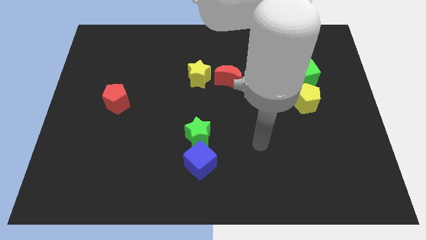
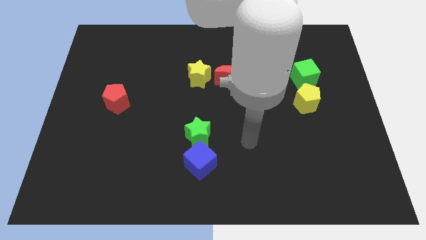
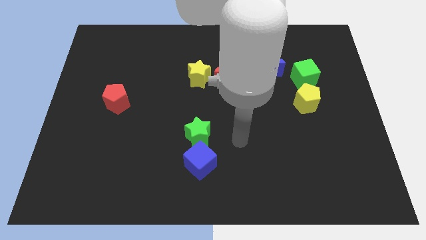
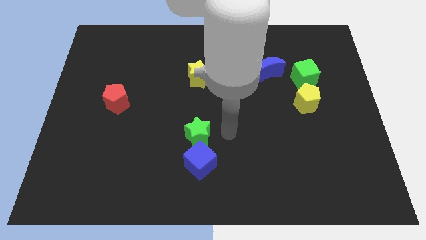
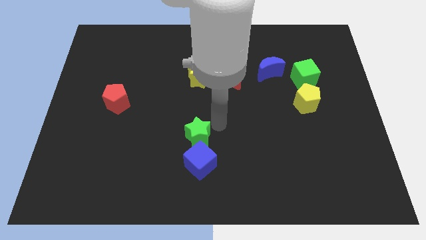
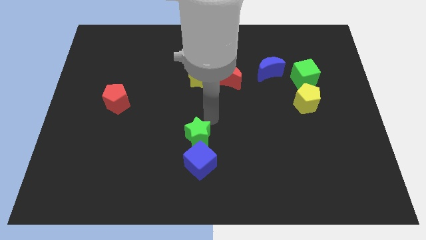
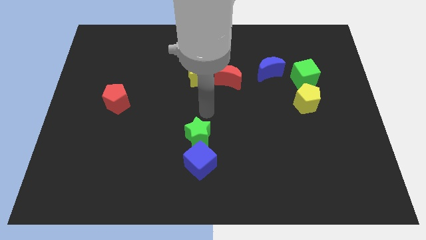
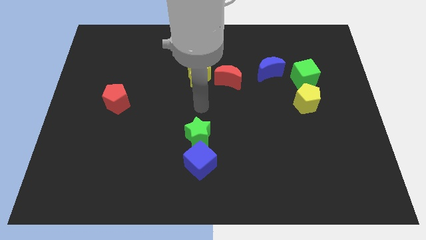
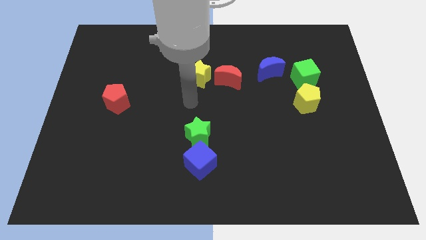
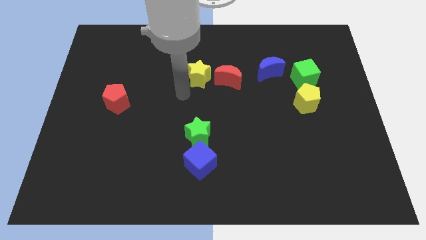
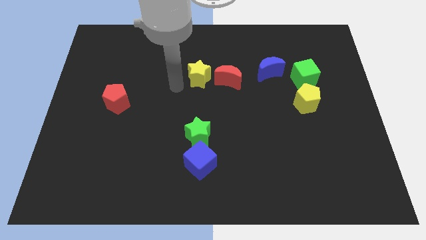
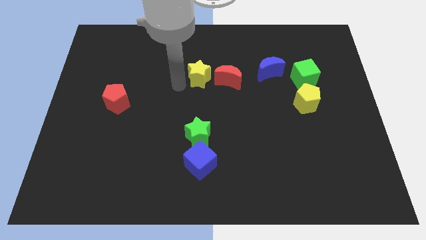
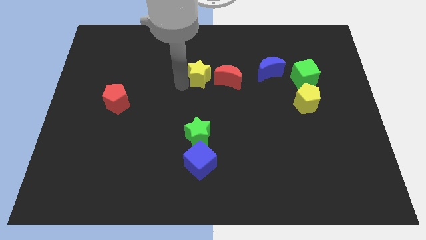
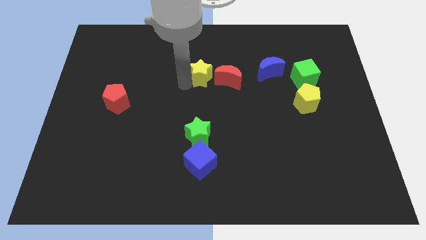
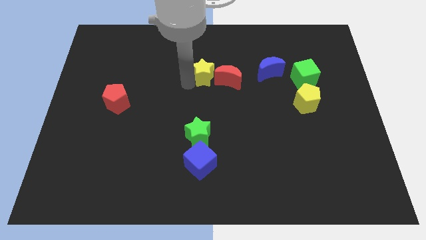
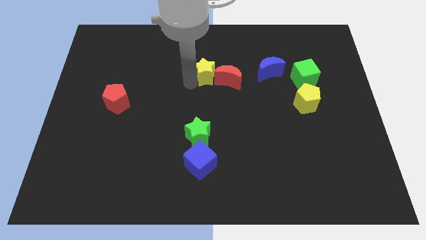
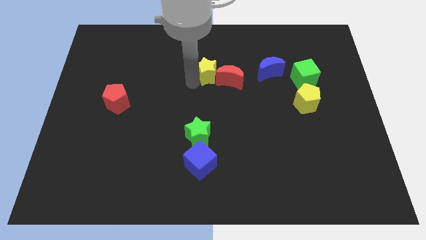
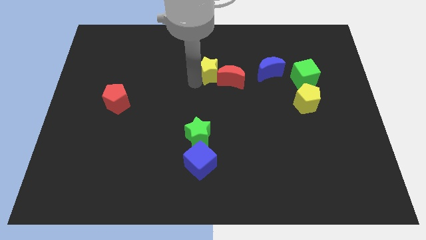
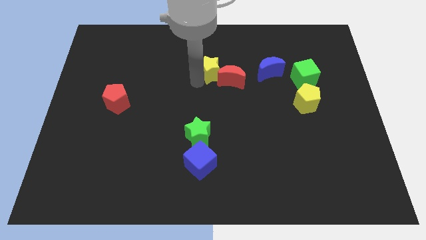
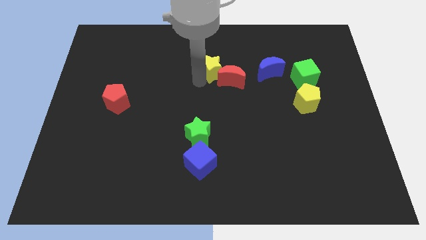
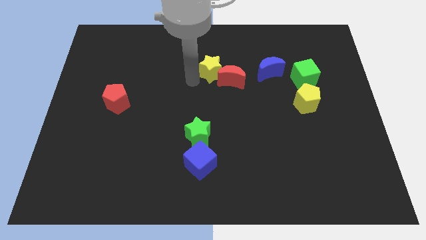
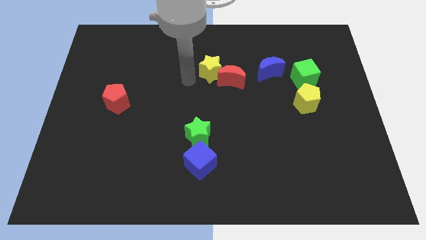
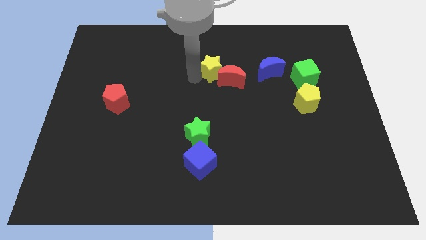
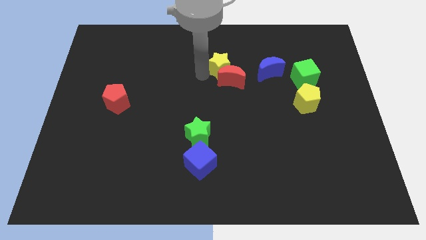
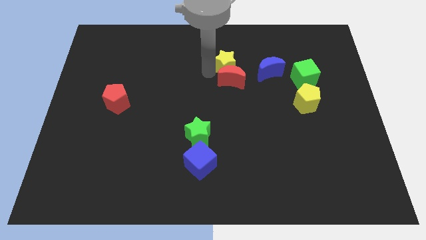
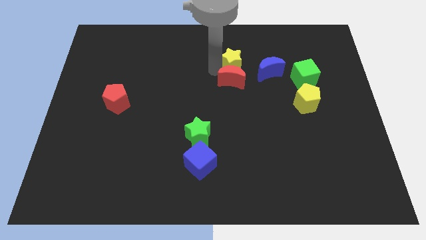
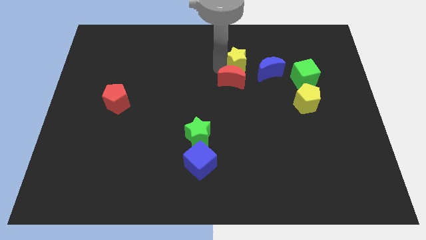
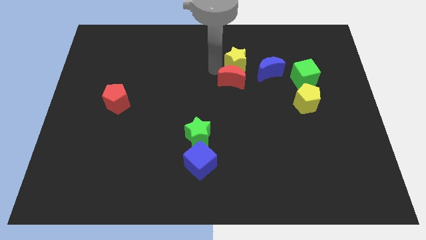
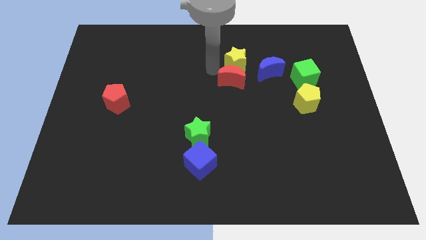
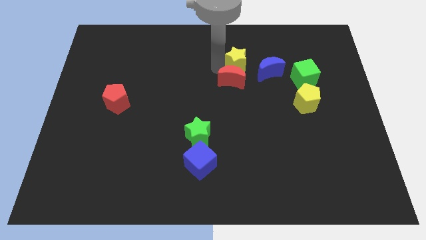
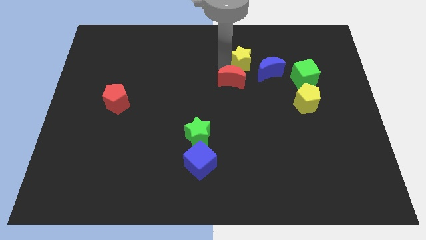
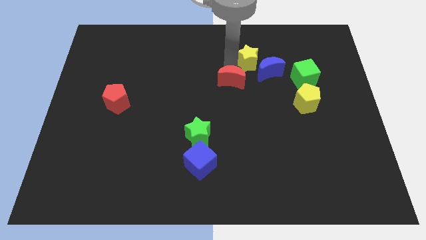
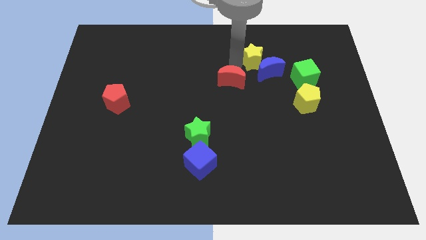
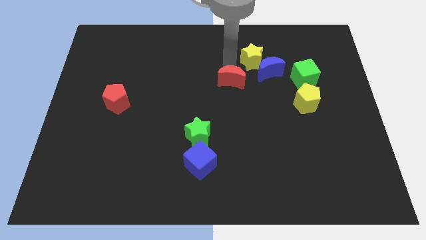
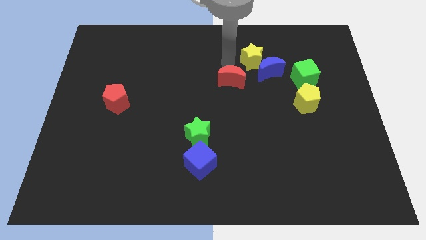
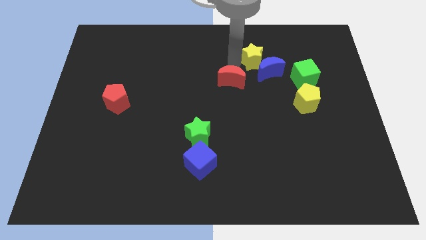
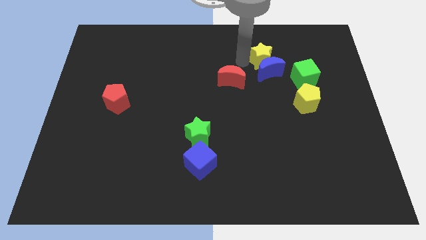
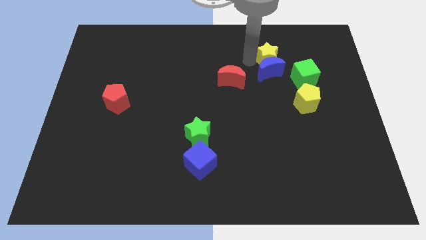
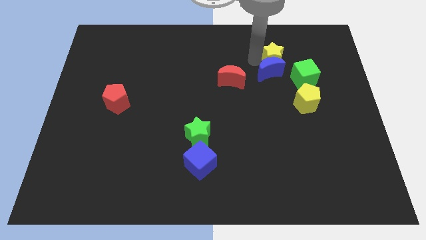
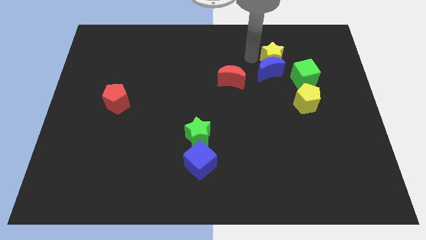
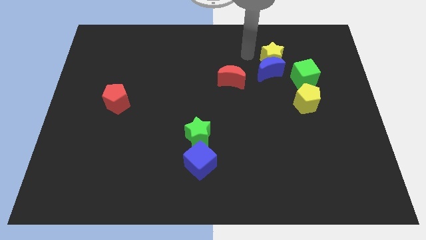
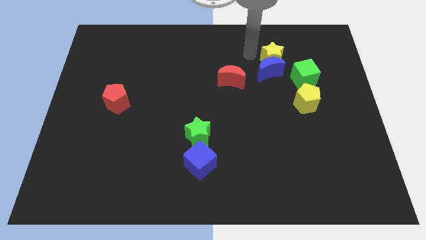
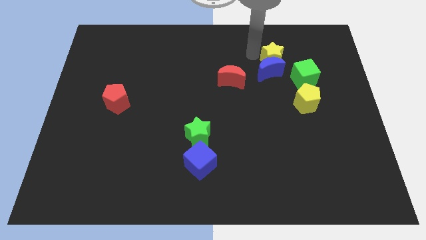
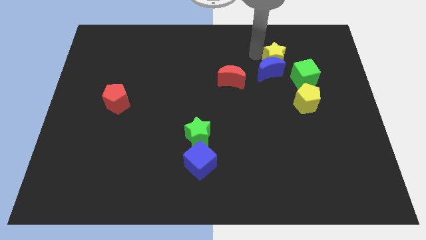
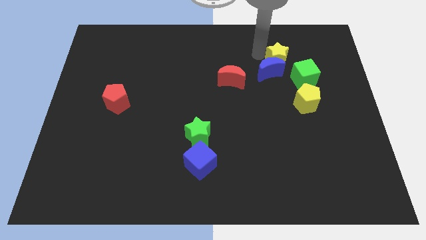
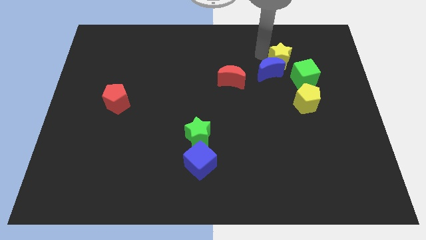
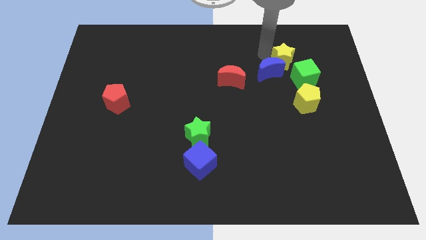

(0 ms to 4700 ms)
move the yellow star right

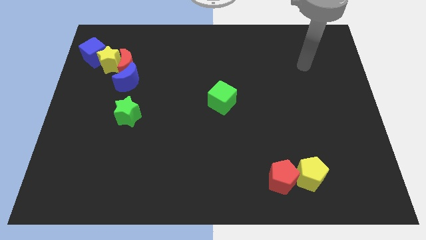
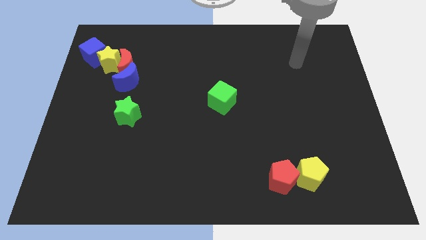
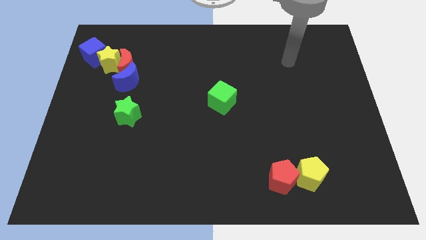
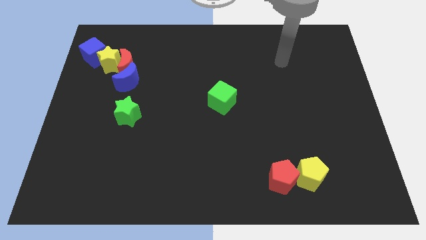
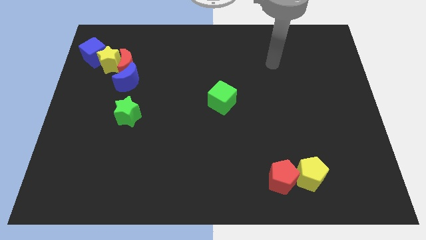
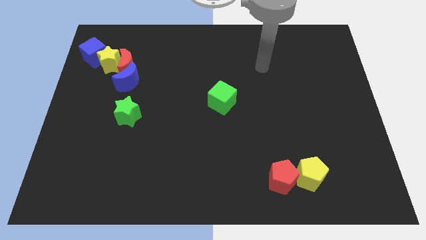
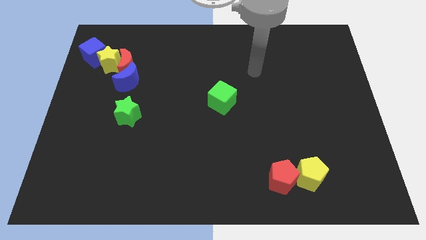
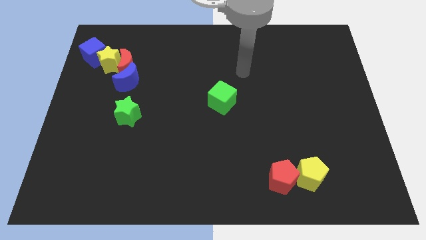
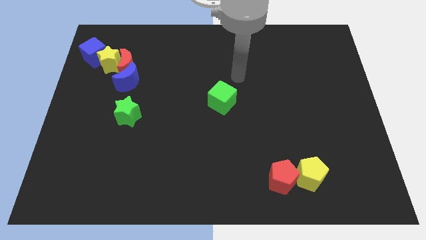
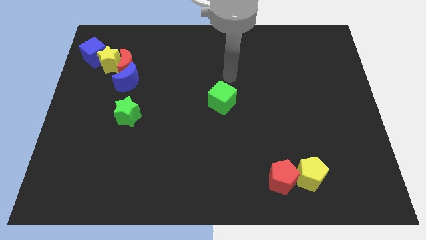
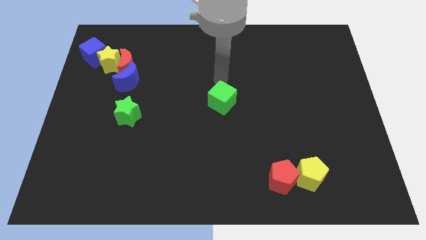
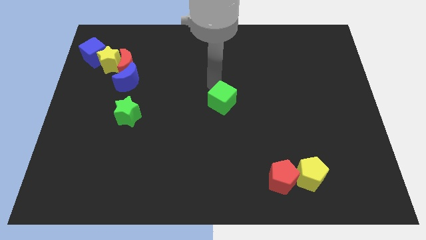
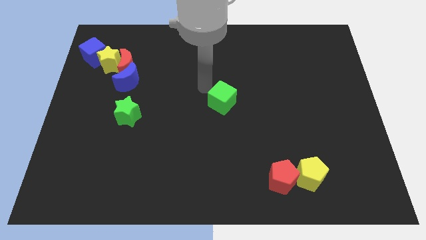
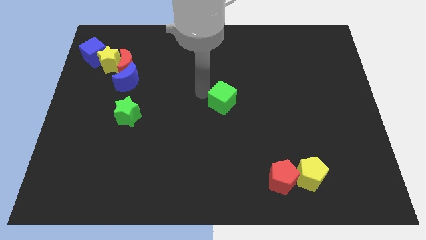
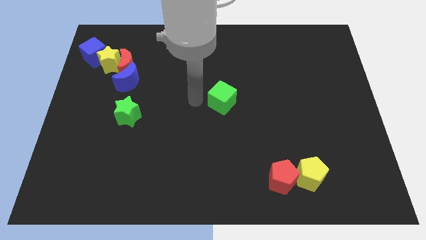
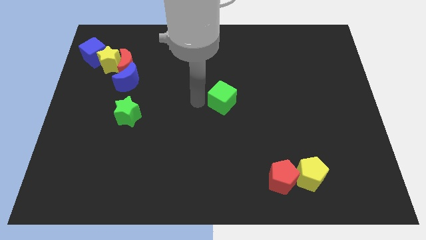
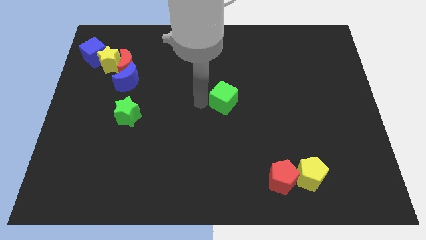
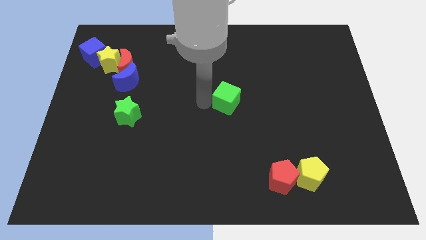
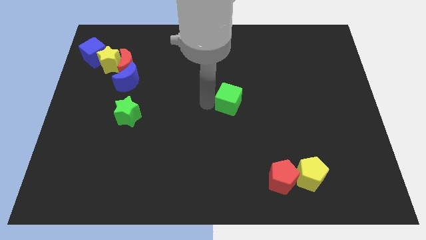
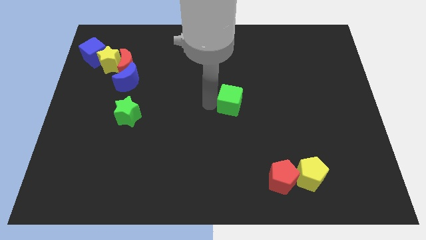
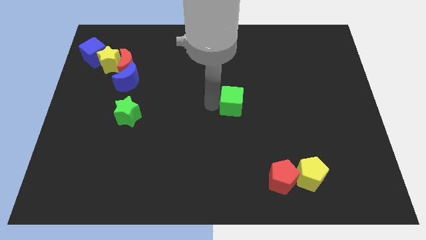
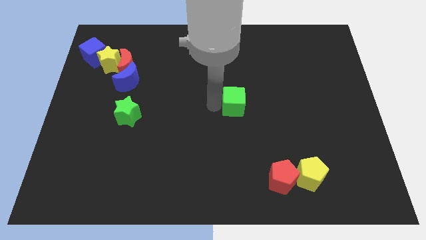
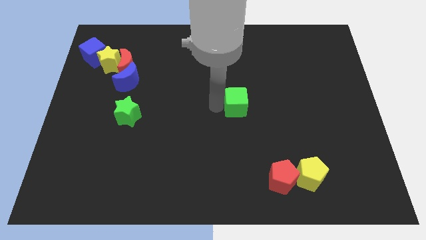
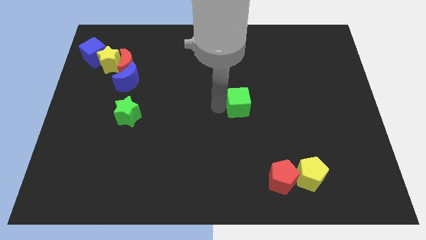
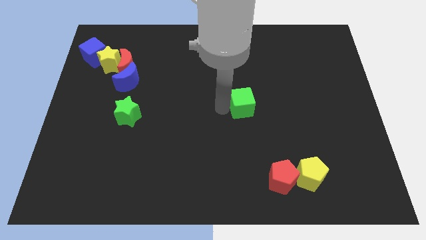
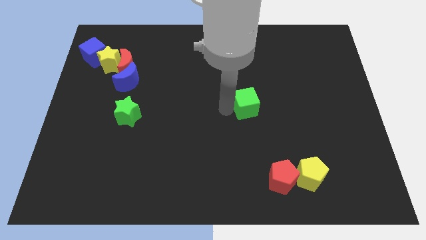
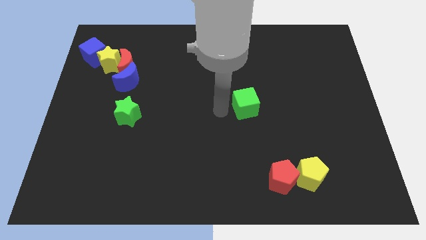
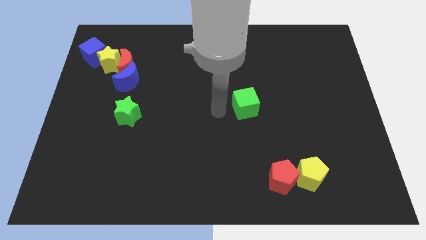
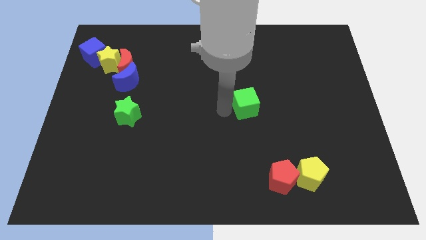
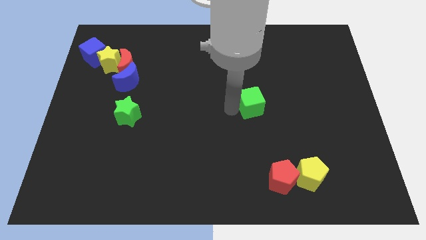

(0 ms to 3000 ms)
slightly push the green cube to the right

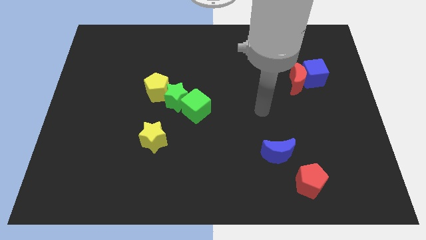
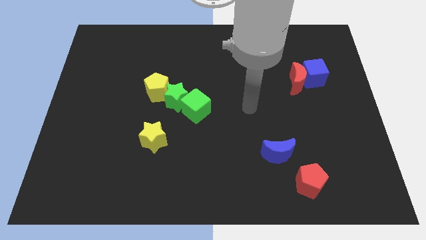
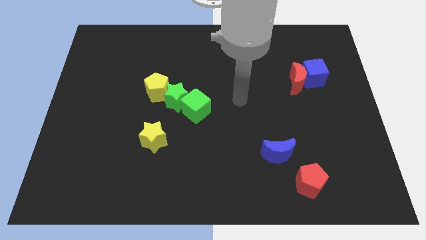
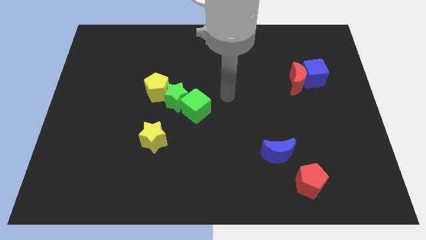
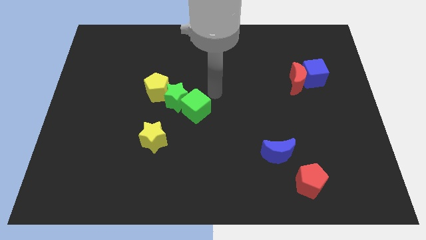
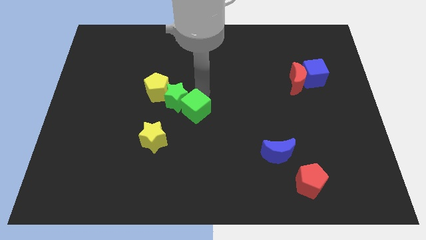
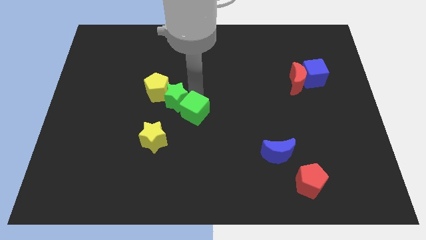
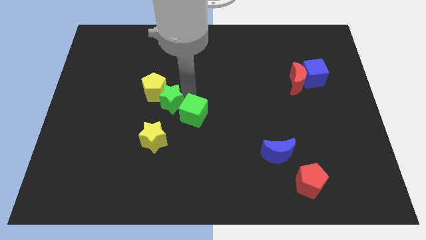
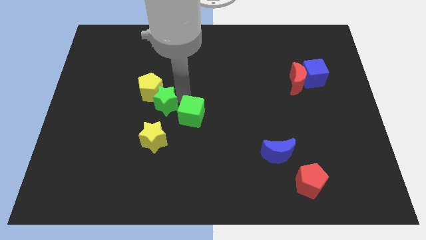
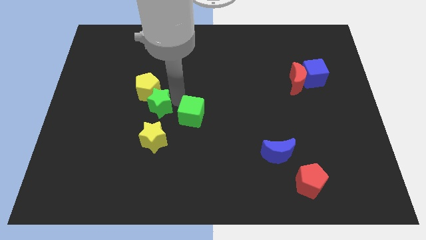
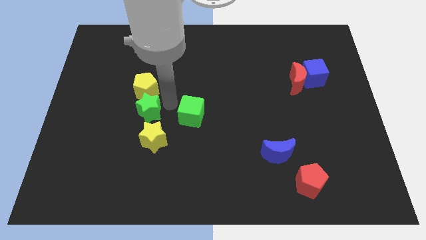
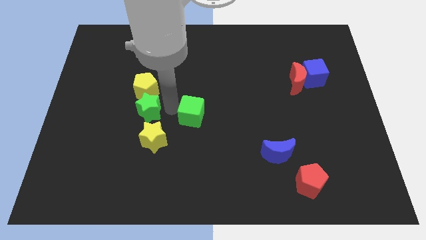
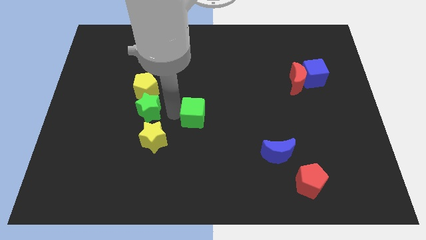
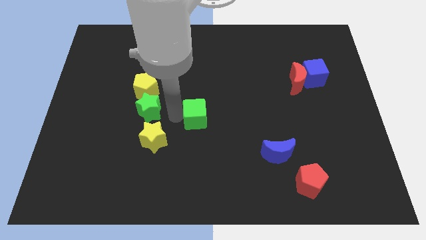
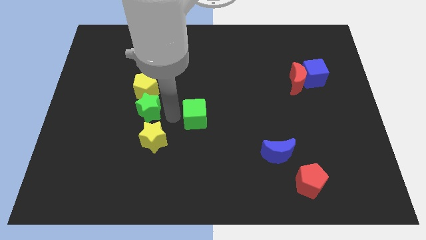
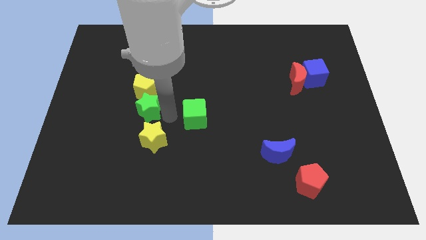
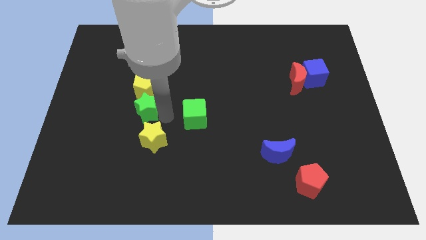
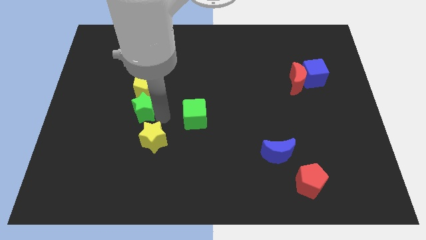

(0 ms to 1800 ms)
move the green star left slightly
